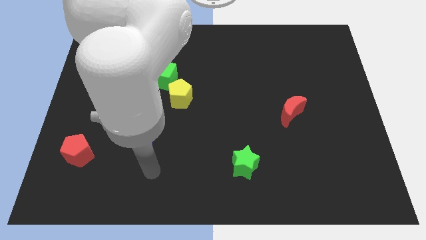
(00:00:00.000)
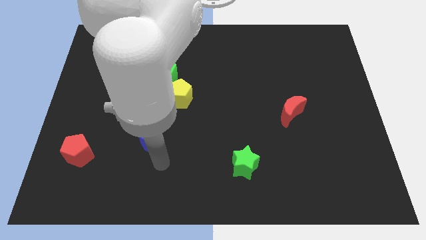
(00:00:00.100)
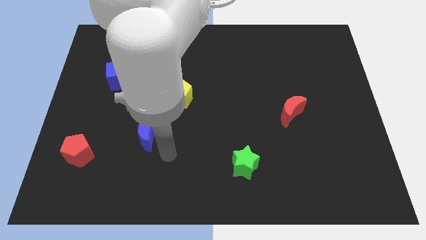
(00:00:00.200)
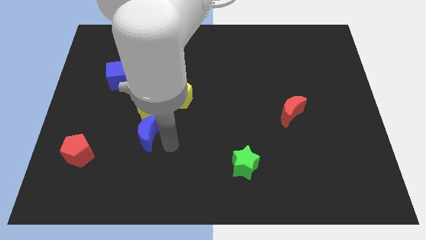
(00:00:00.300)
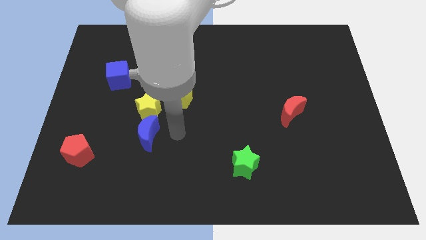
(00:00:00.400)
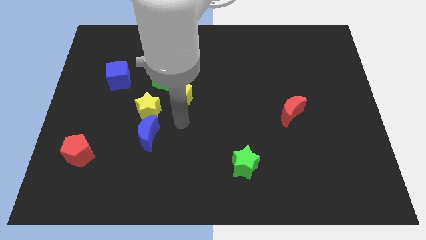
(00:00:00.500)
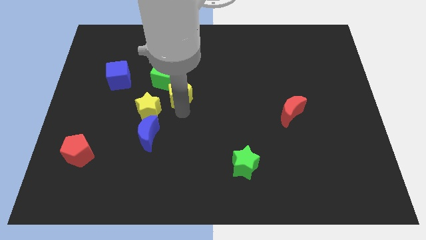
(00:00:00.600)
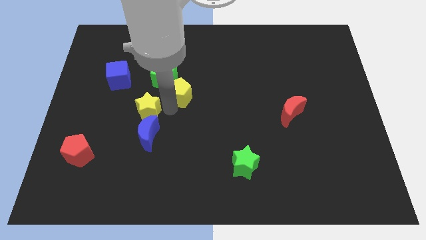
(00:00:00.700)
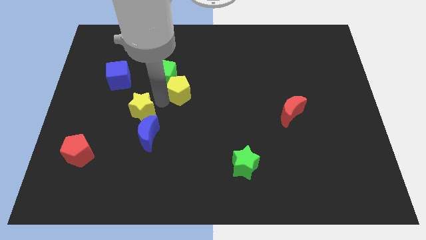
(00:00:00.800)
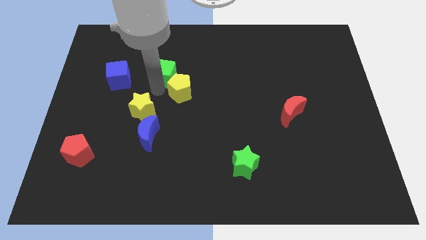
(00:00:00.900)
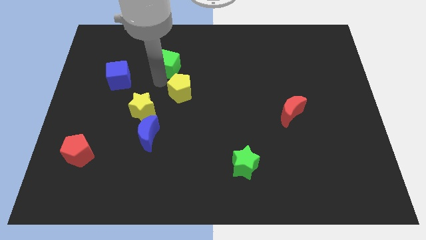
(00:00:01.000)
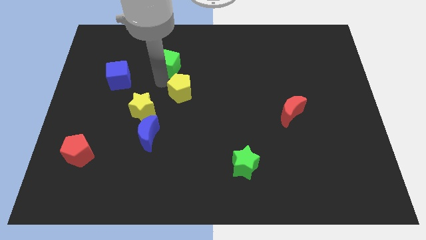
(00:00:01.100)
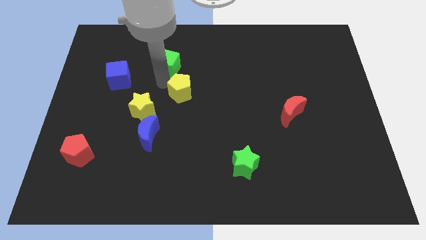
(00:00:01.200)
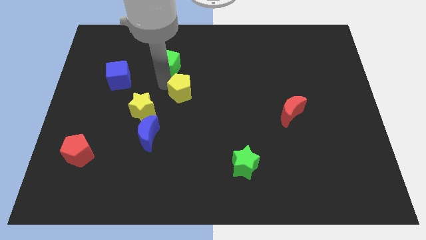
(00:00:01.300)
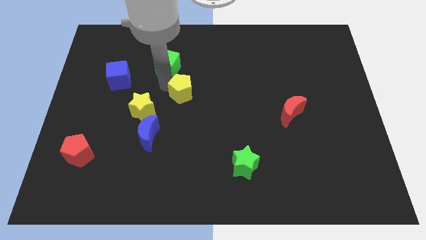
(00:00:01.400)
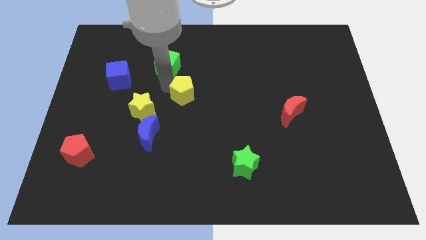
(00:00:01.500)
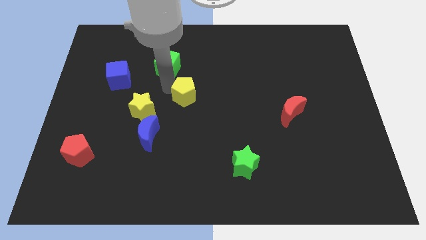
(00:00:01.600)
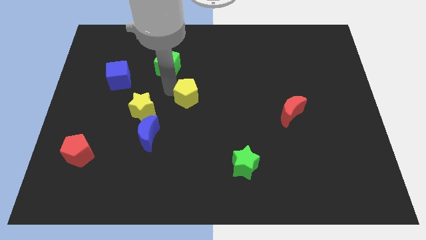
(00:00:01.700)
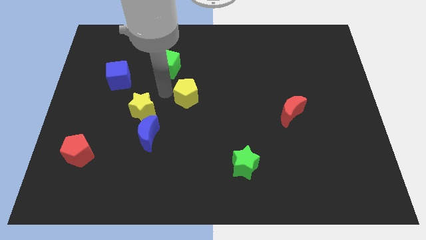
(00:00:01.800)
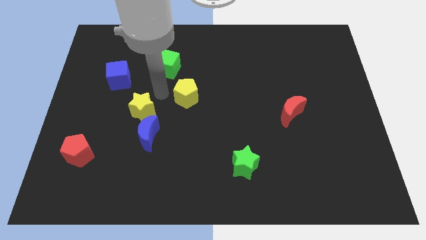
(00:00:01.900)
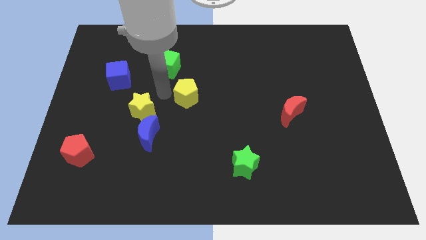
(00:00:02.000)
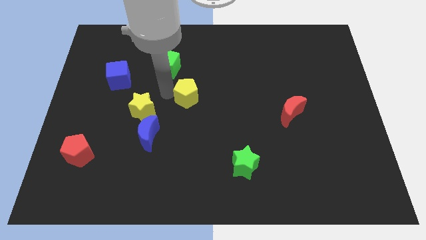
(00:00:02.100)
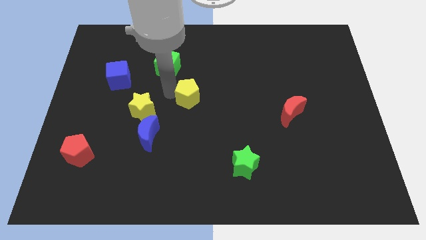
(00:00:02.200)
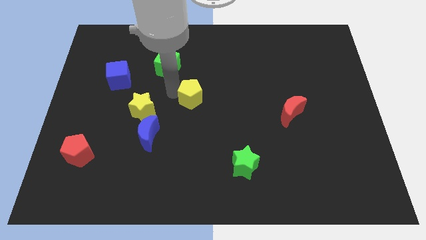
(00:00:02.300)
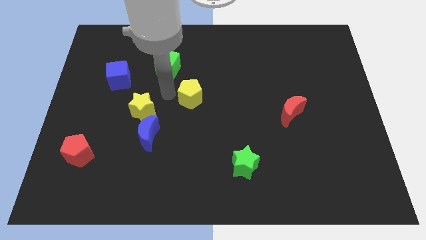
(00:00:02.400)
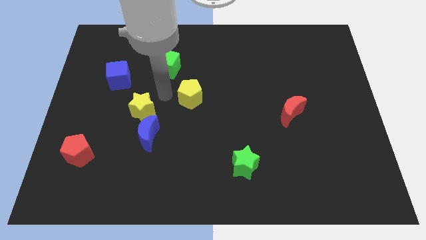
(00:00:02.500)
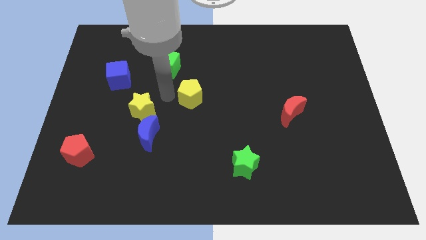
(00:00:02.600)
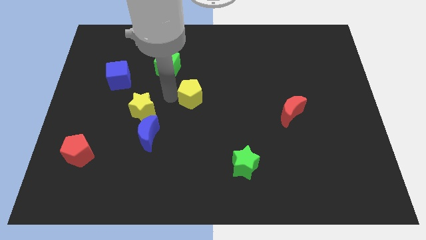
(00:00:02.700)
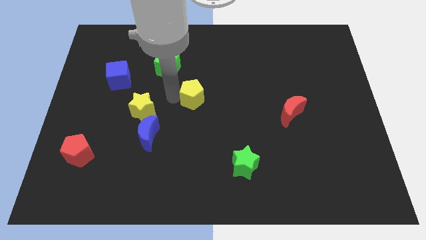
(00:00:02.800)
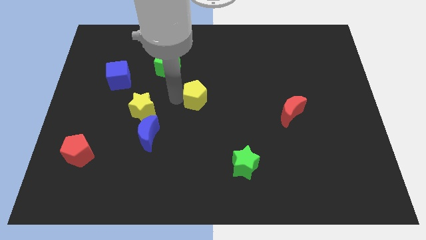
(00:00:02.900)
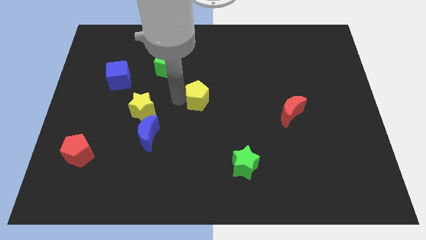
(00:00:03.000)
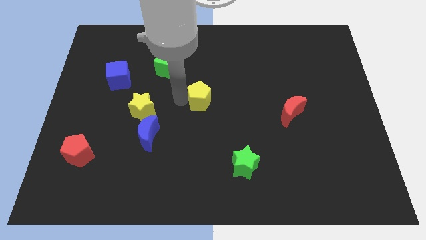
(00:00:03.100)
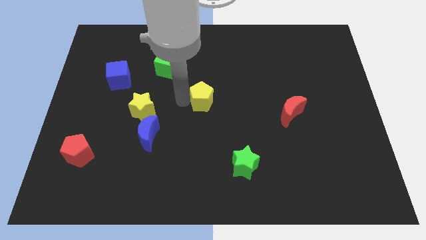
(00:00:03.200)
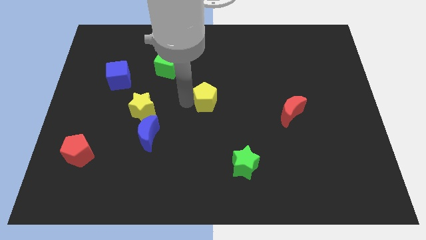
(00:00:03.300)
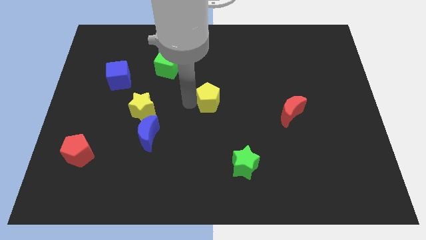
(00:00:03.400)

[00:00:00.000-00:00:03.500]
slightly push the yellow pentagon right

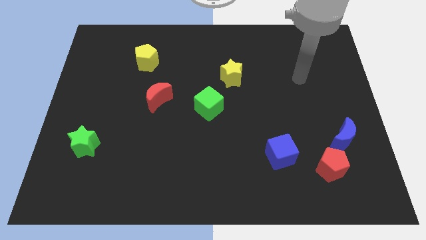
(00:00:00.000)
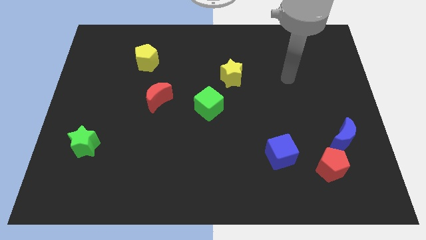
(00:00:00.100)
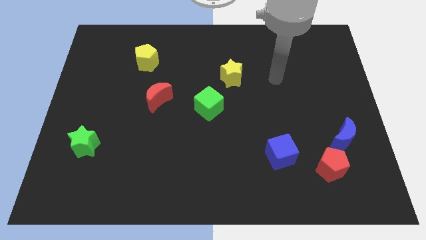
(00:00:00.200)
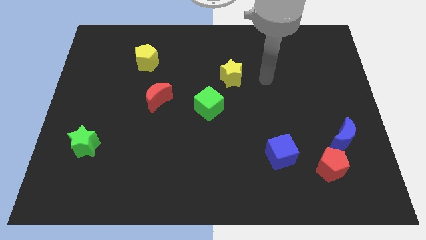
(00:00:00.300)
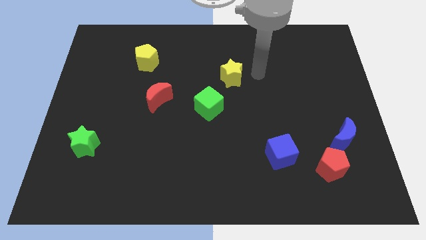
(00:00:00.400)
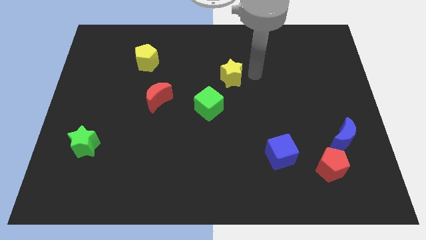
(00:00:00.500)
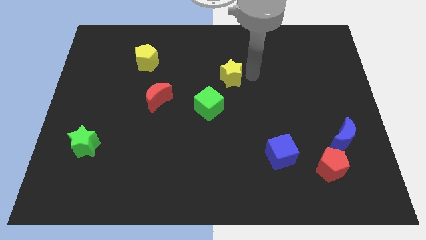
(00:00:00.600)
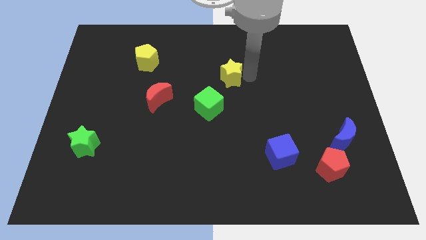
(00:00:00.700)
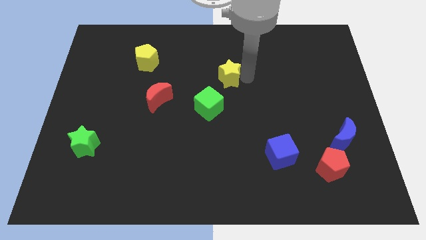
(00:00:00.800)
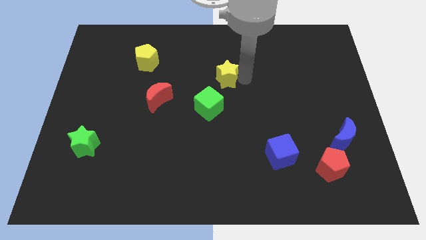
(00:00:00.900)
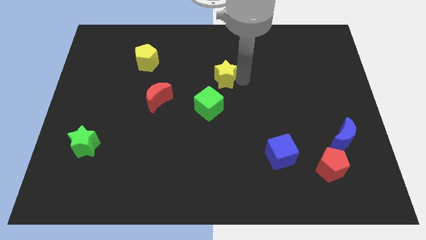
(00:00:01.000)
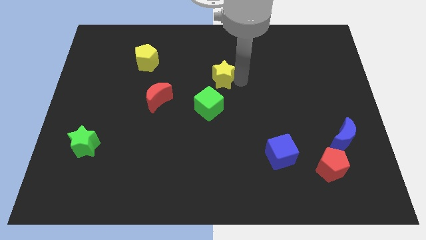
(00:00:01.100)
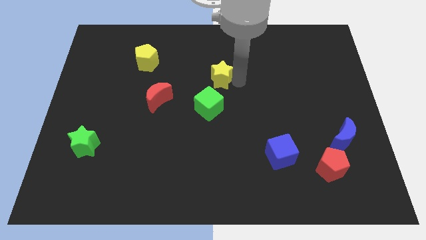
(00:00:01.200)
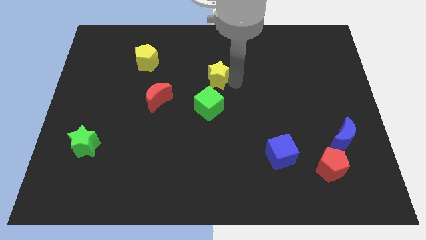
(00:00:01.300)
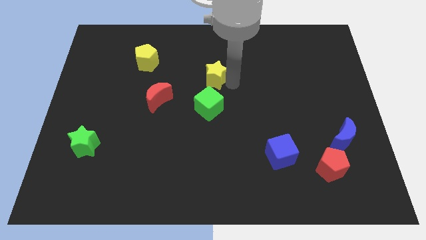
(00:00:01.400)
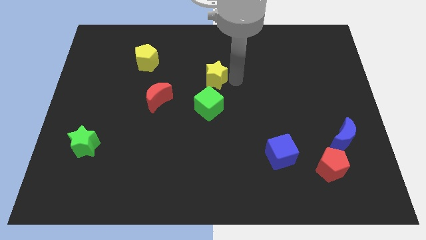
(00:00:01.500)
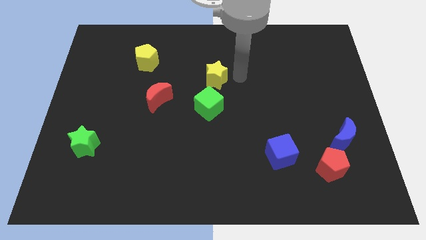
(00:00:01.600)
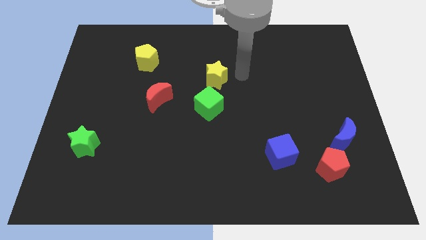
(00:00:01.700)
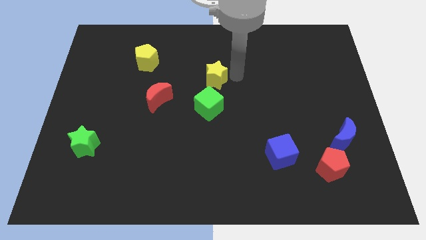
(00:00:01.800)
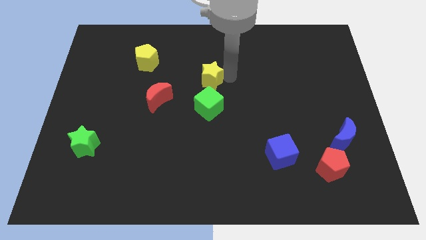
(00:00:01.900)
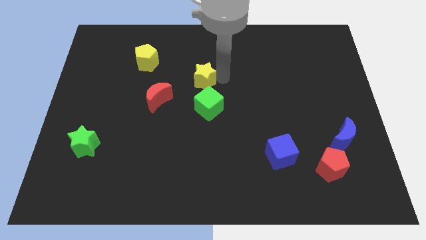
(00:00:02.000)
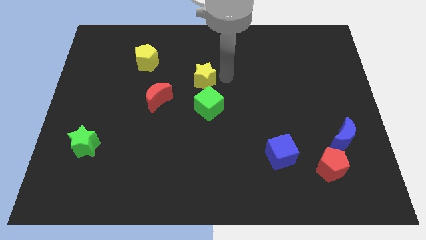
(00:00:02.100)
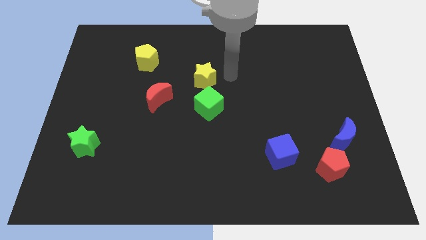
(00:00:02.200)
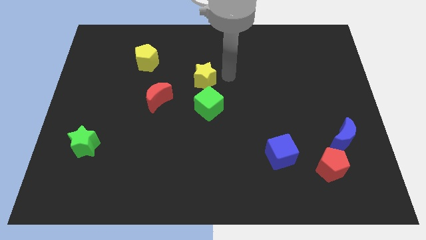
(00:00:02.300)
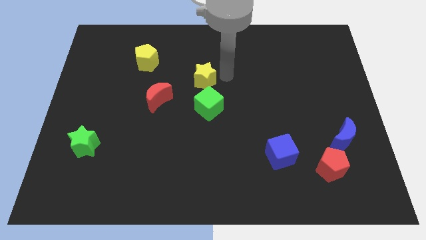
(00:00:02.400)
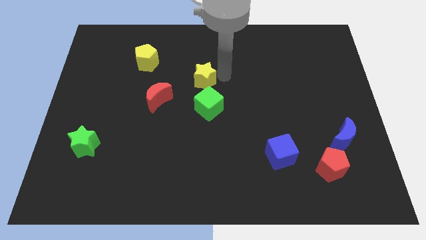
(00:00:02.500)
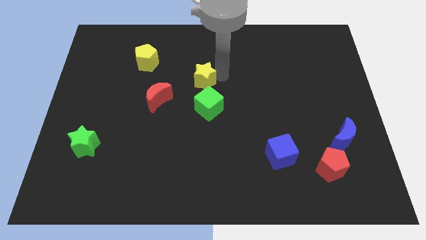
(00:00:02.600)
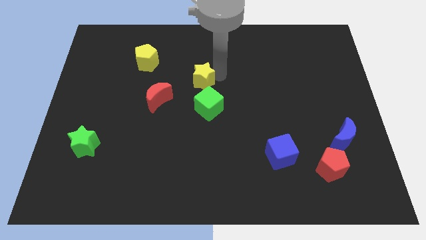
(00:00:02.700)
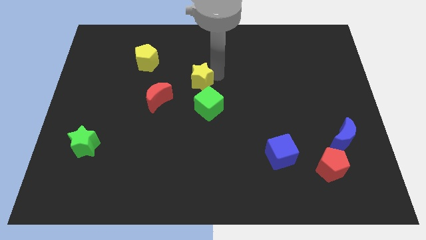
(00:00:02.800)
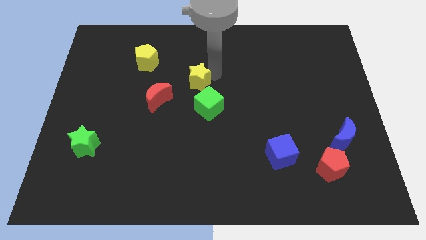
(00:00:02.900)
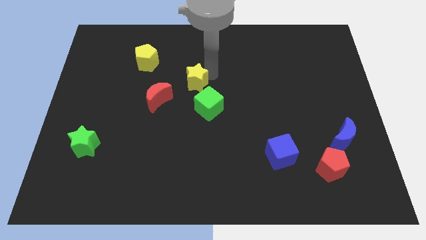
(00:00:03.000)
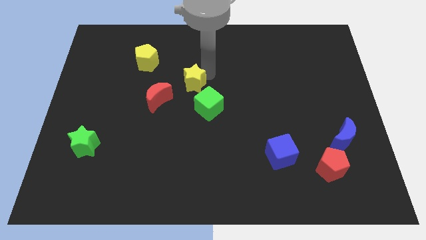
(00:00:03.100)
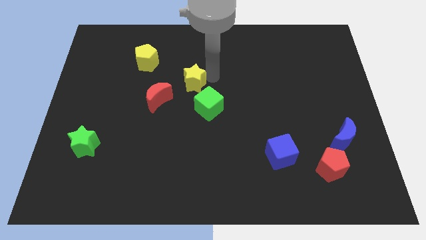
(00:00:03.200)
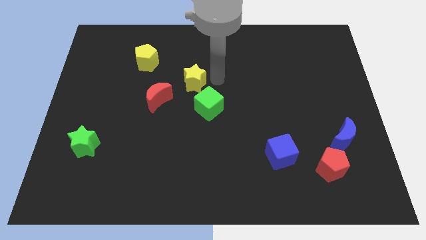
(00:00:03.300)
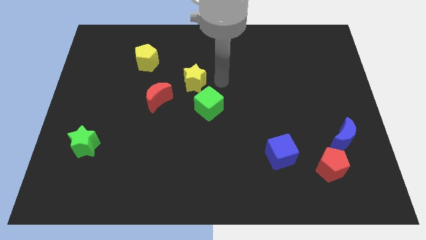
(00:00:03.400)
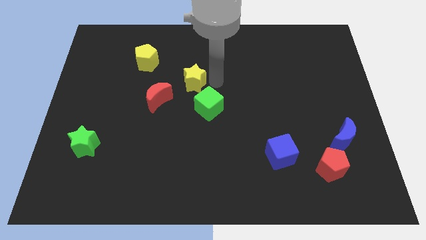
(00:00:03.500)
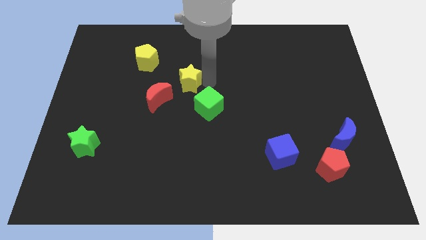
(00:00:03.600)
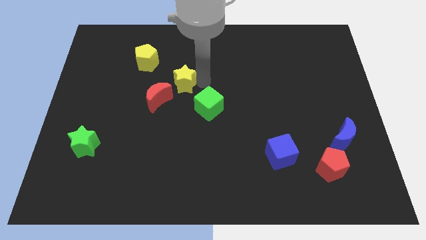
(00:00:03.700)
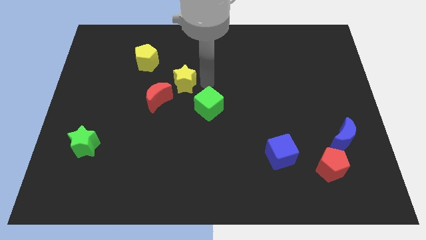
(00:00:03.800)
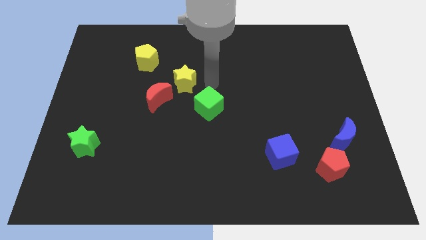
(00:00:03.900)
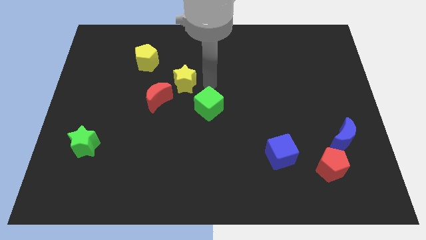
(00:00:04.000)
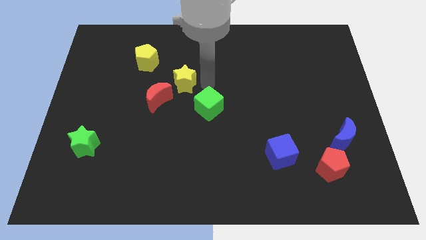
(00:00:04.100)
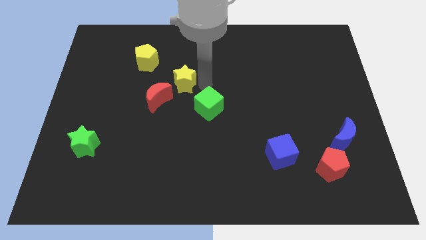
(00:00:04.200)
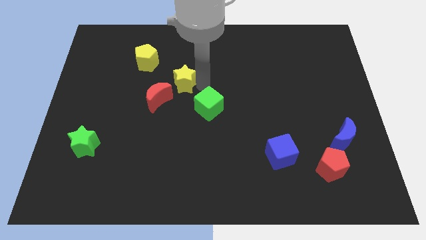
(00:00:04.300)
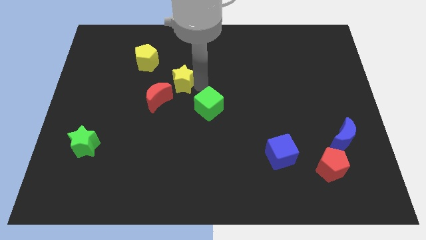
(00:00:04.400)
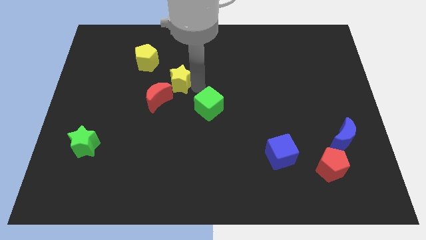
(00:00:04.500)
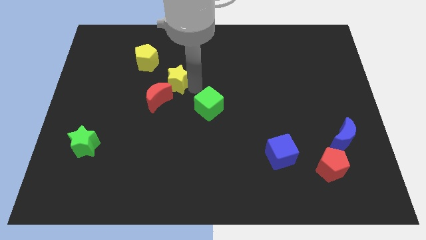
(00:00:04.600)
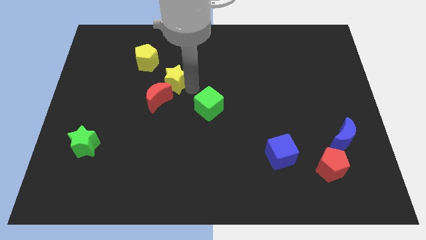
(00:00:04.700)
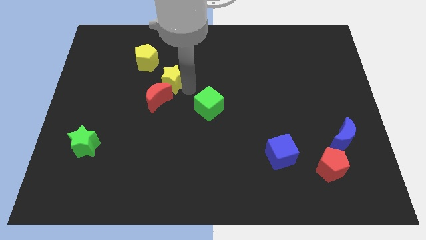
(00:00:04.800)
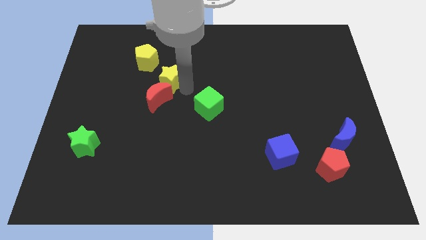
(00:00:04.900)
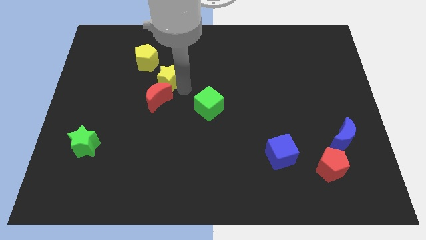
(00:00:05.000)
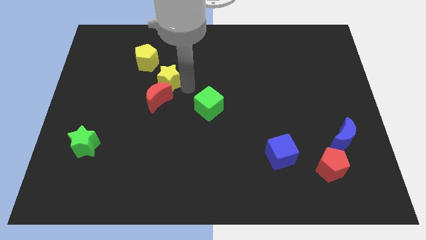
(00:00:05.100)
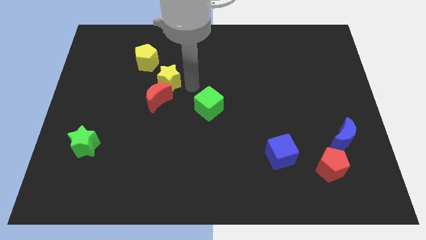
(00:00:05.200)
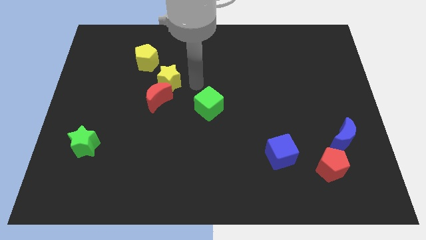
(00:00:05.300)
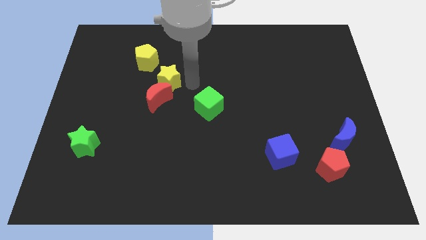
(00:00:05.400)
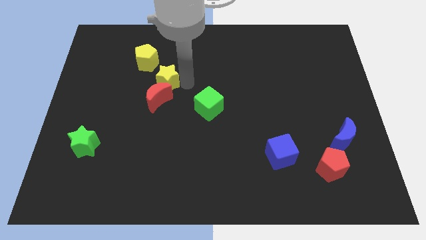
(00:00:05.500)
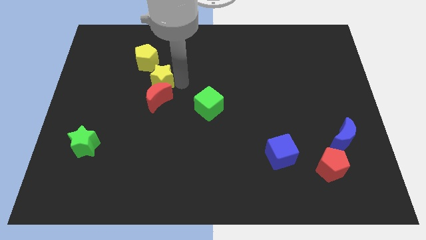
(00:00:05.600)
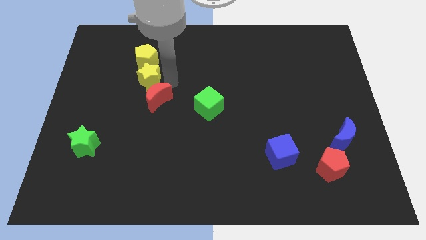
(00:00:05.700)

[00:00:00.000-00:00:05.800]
slide the yellow star to the left
